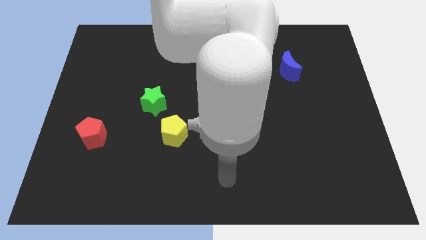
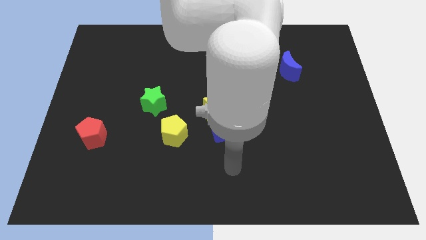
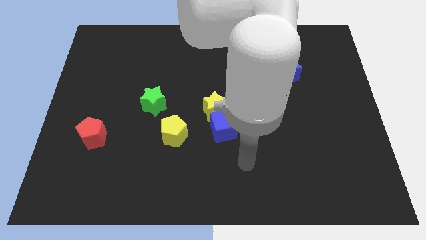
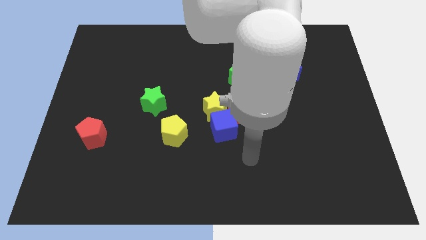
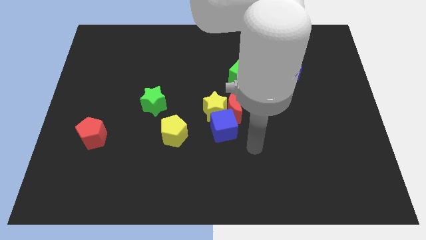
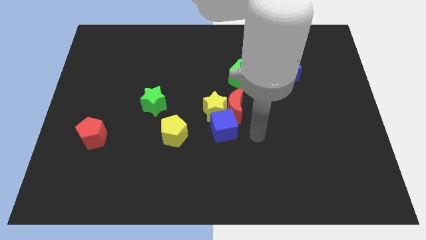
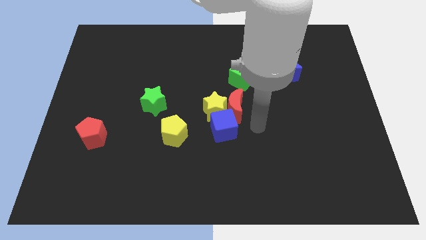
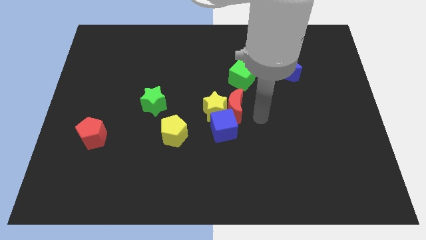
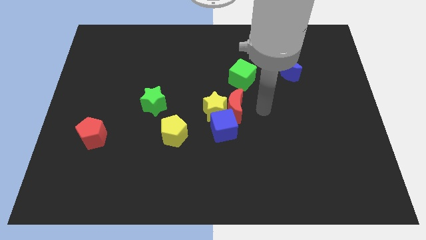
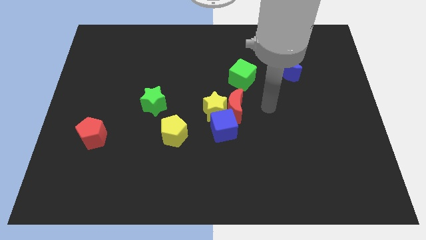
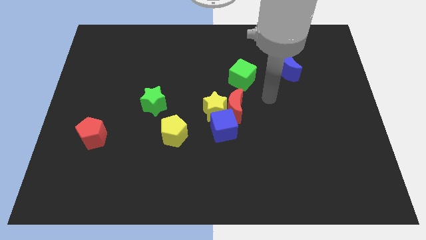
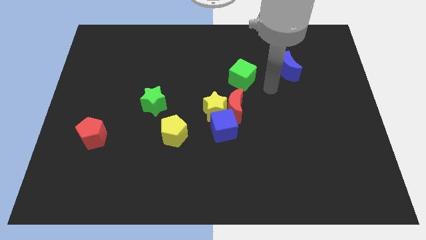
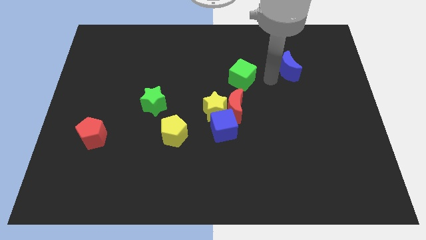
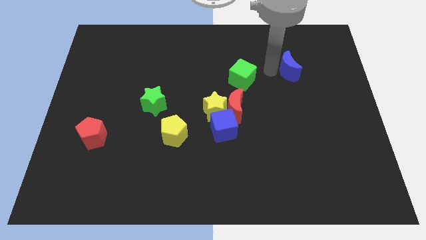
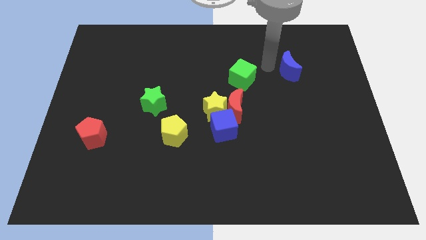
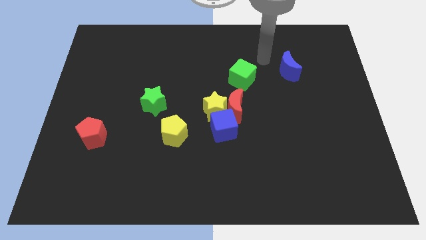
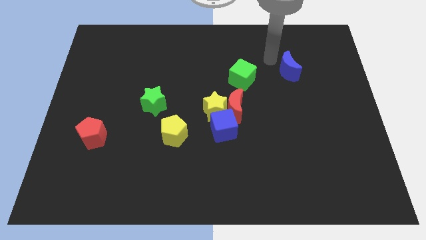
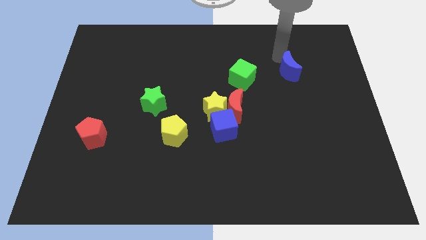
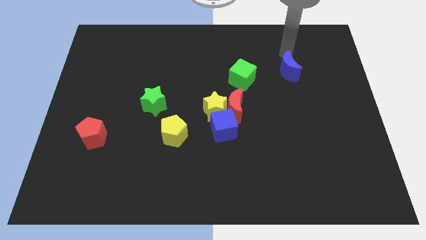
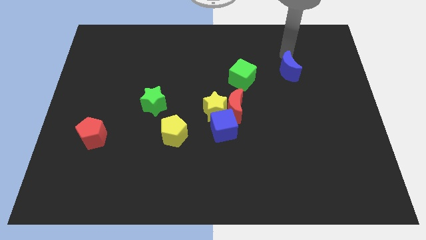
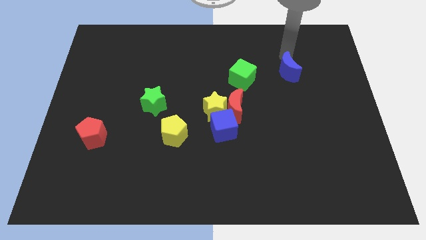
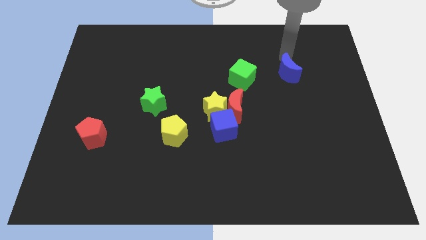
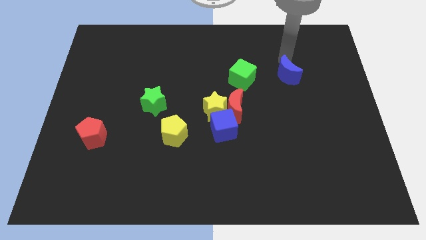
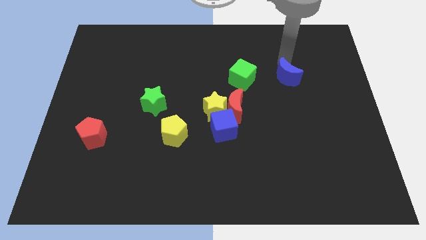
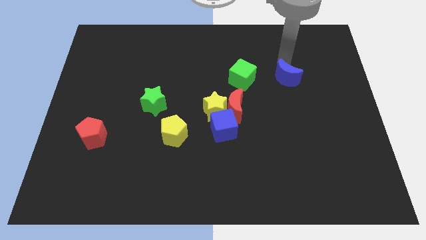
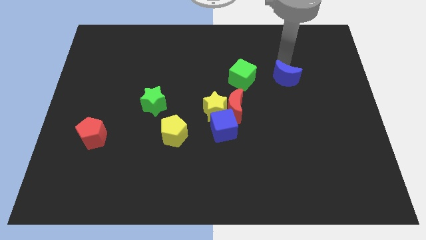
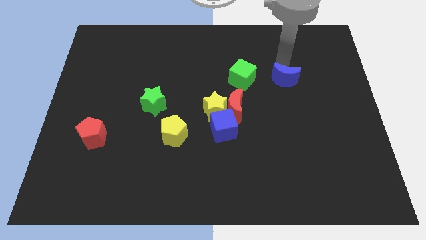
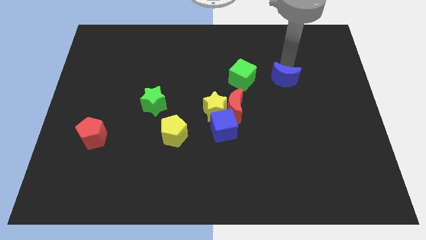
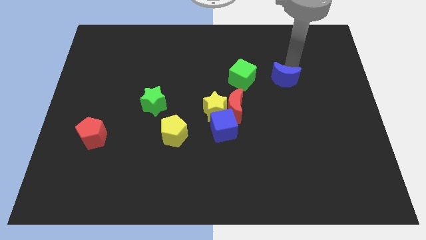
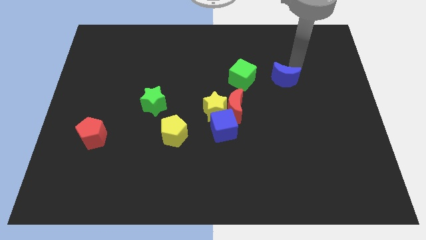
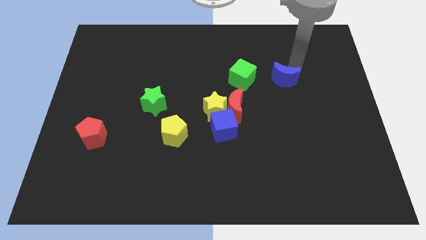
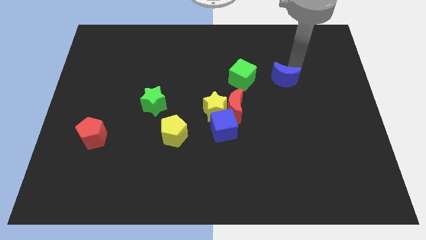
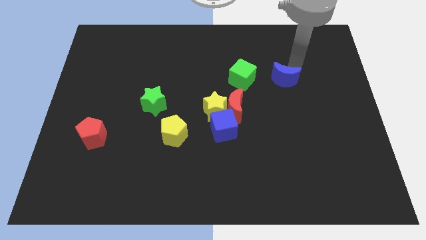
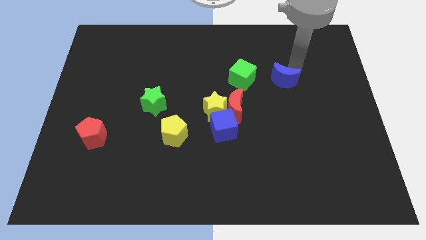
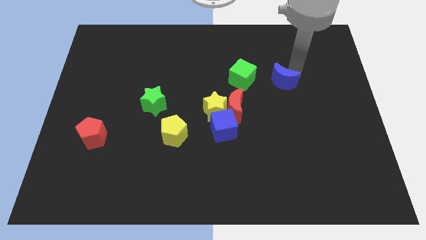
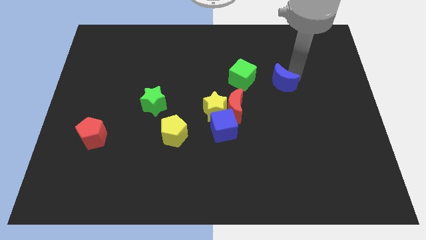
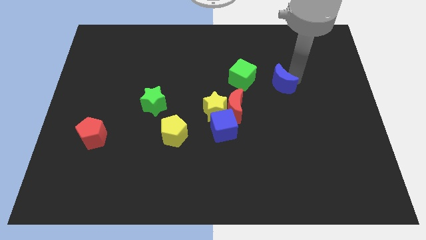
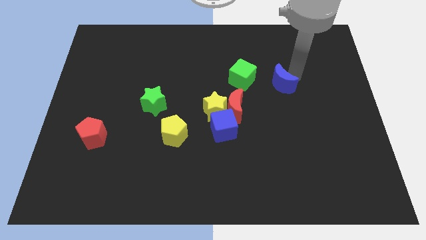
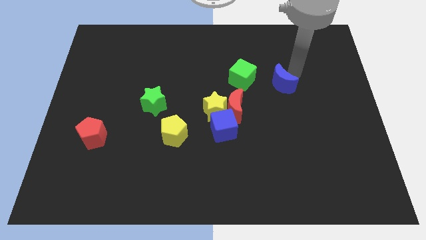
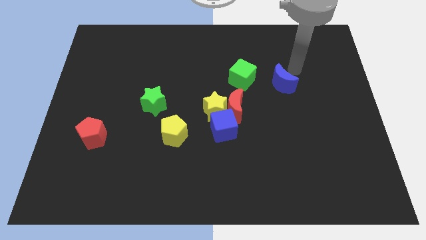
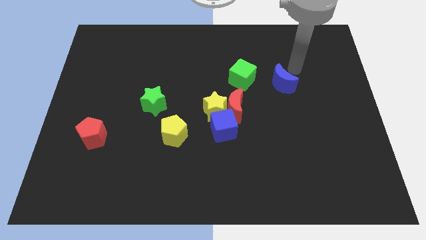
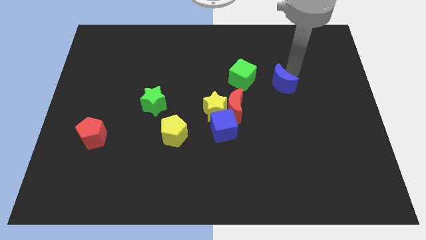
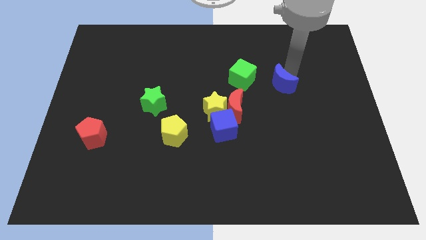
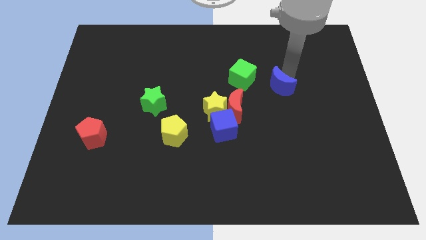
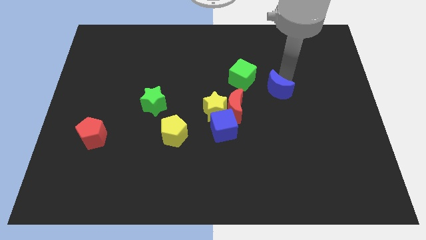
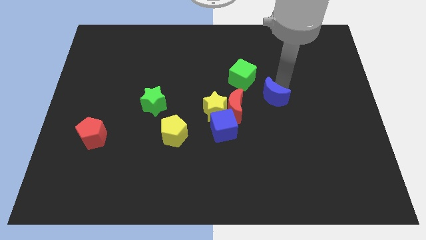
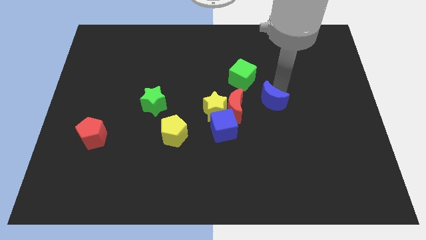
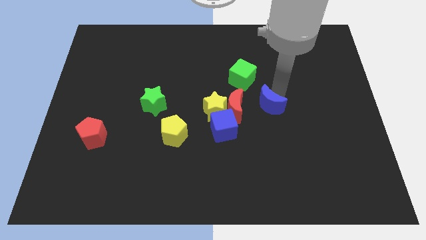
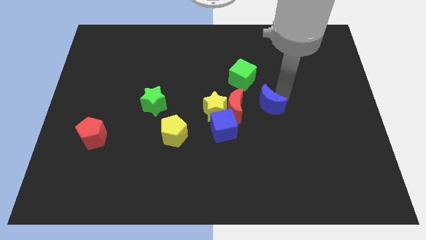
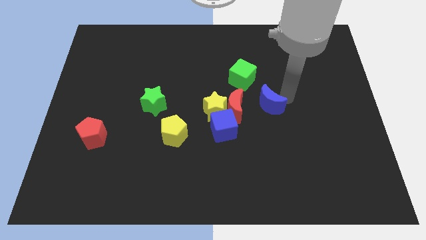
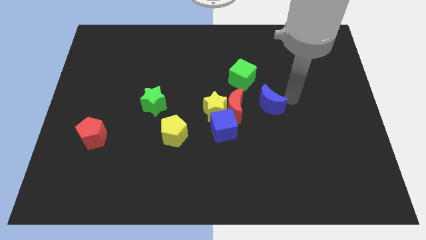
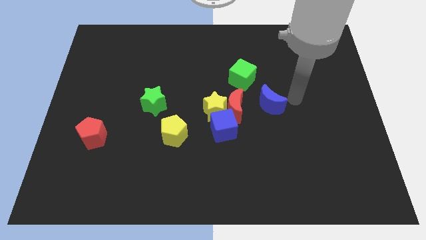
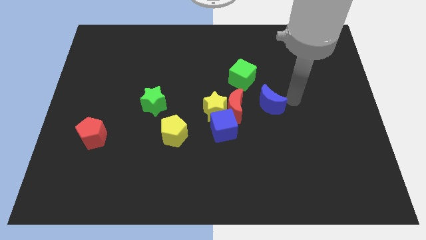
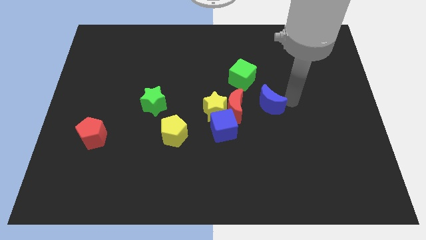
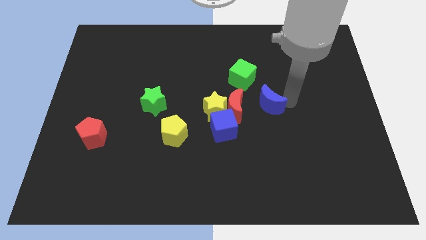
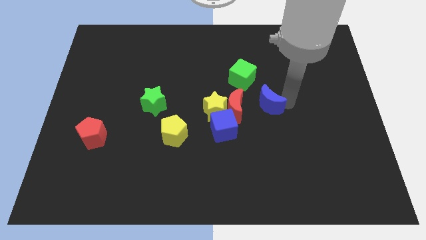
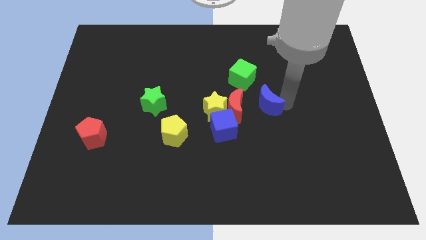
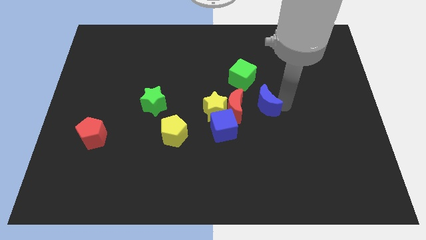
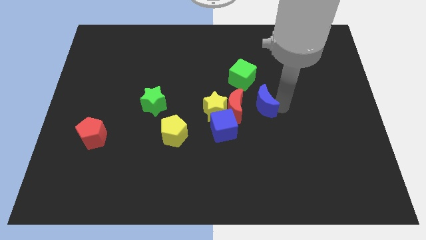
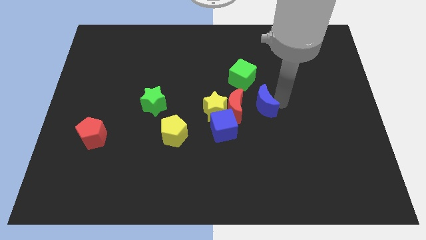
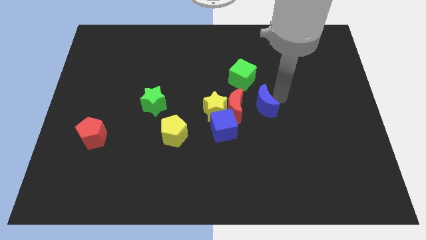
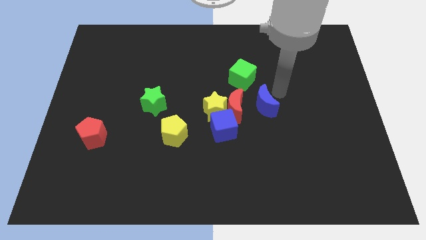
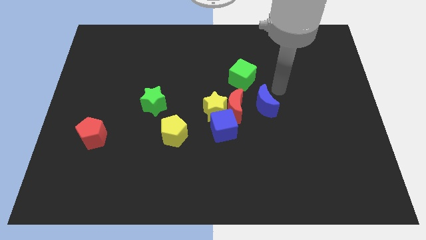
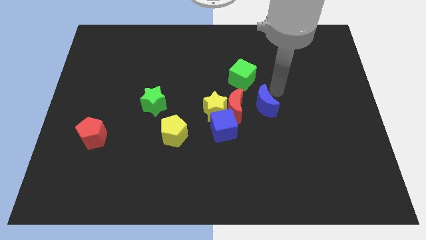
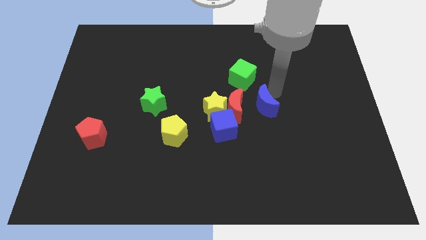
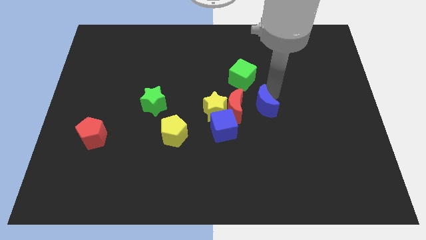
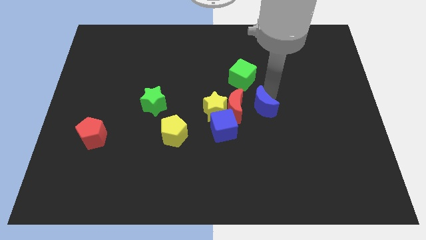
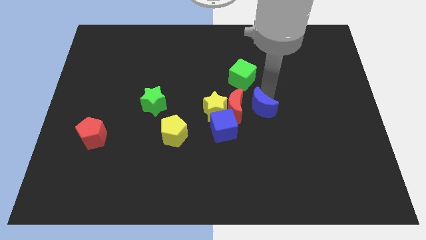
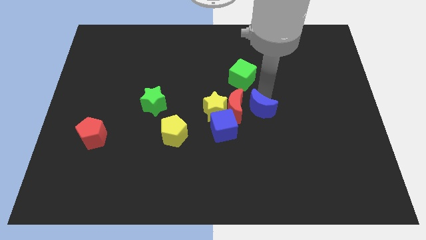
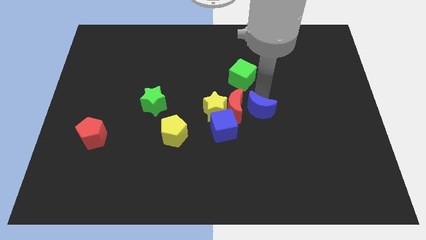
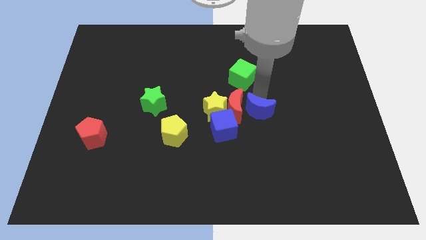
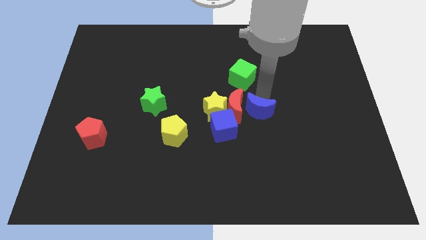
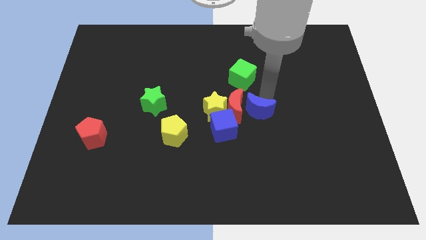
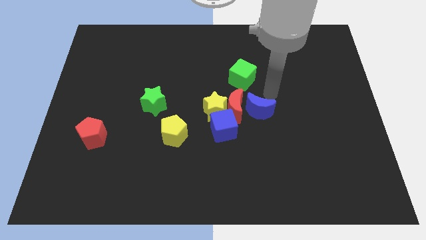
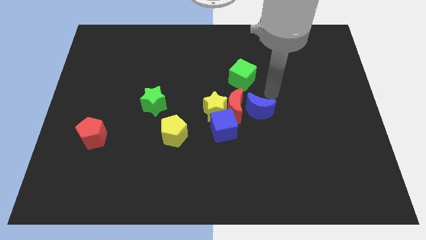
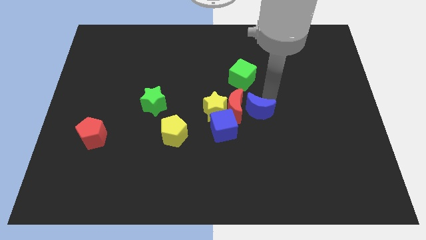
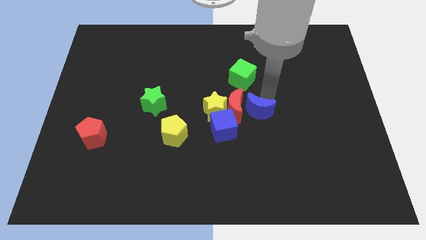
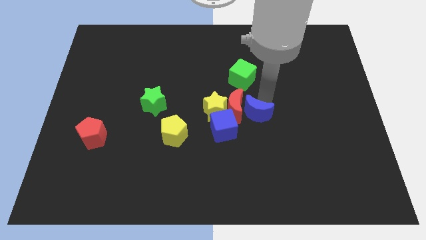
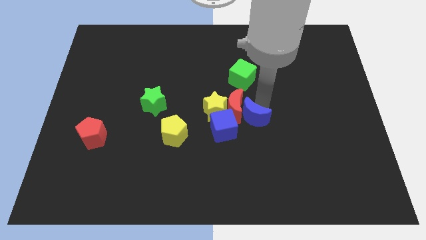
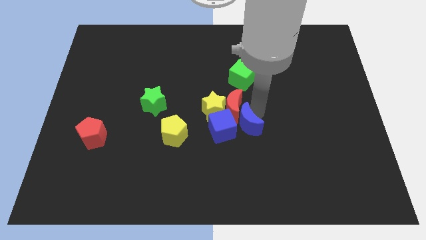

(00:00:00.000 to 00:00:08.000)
push the blue moon below the red moon
